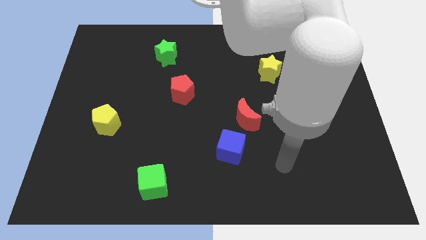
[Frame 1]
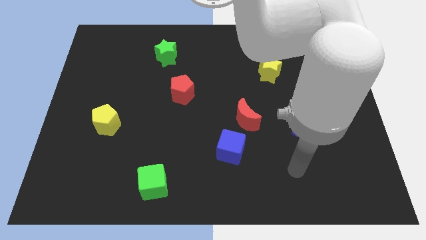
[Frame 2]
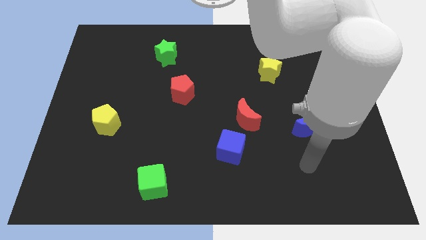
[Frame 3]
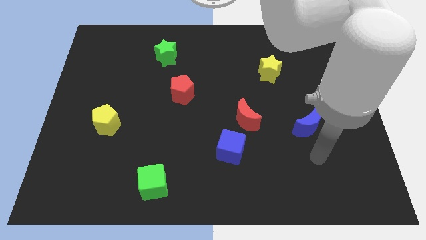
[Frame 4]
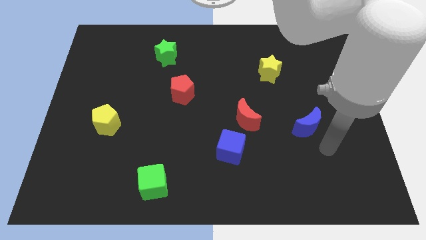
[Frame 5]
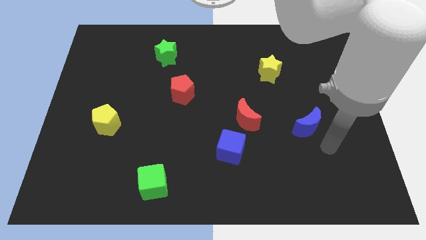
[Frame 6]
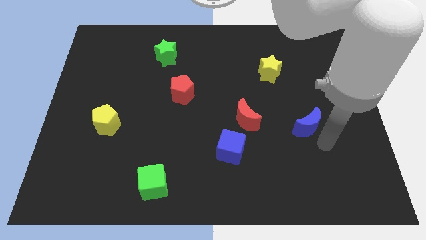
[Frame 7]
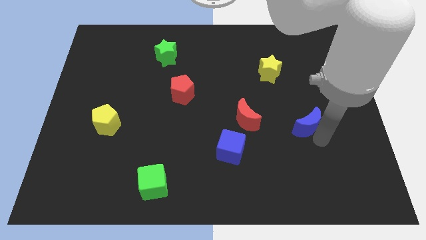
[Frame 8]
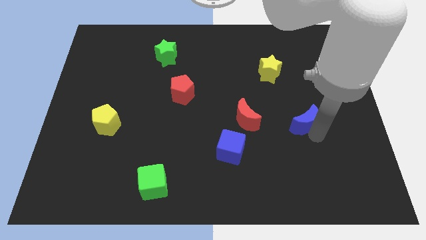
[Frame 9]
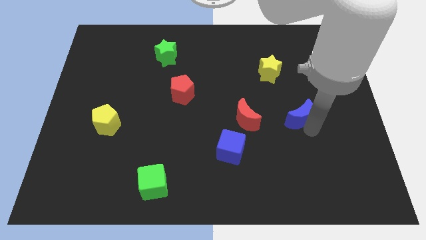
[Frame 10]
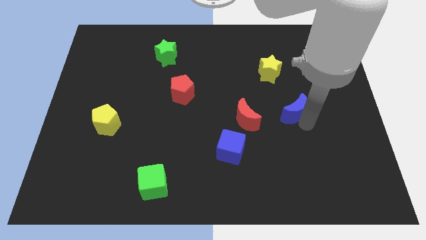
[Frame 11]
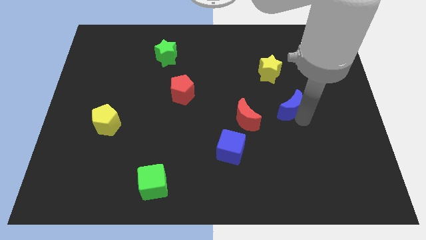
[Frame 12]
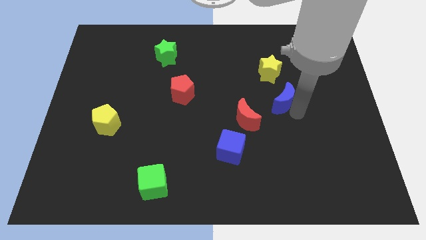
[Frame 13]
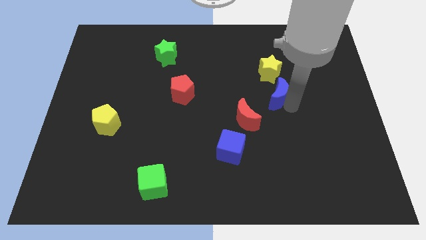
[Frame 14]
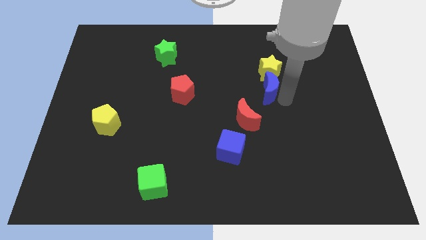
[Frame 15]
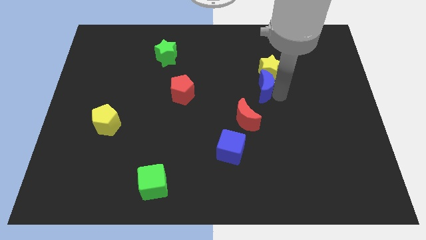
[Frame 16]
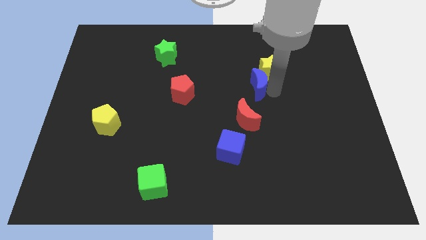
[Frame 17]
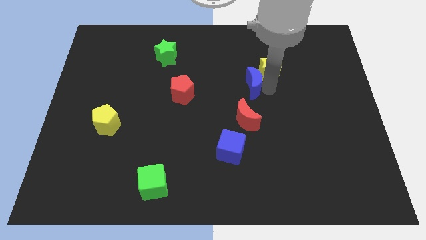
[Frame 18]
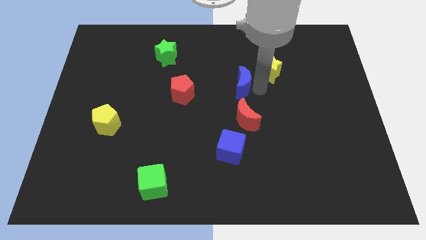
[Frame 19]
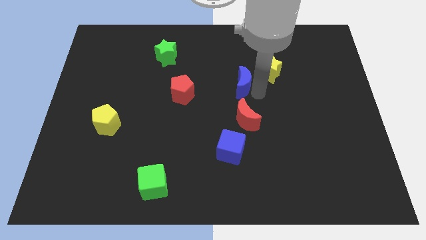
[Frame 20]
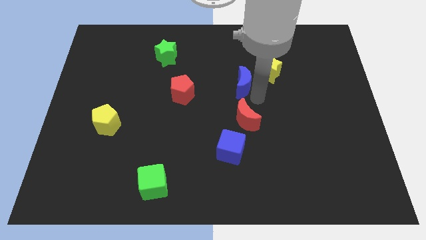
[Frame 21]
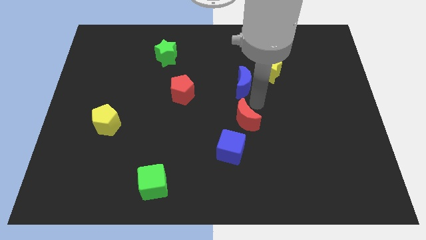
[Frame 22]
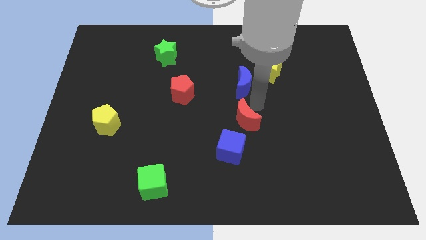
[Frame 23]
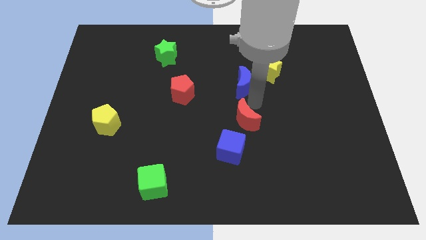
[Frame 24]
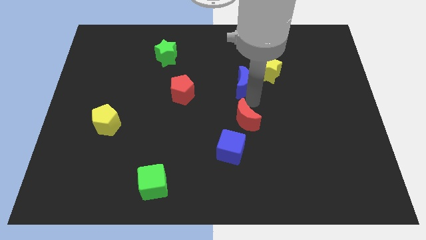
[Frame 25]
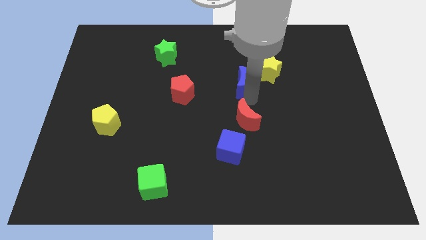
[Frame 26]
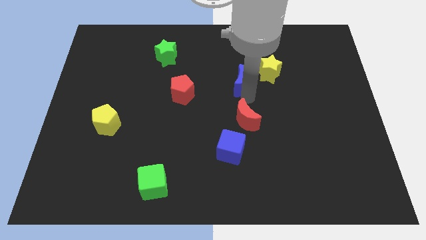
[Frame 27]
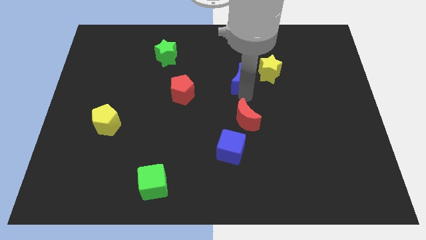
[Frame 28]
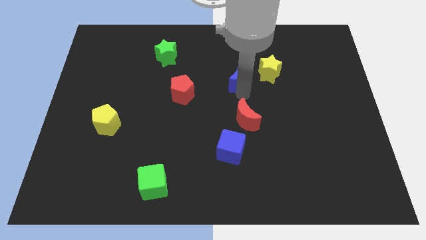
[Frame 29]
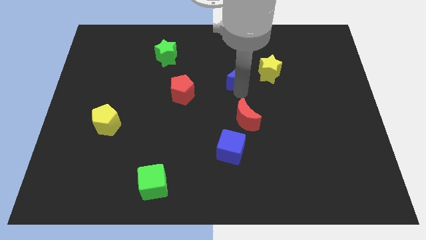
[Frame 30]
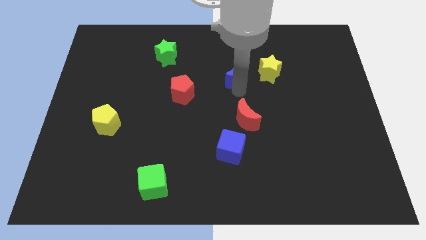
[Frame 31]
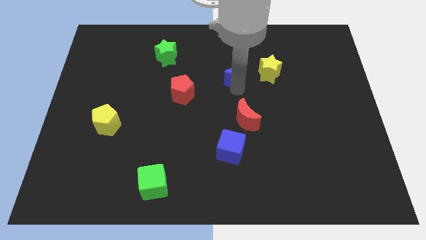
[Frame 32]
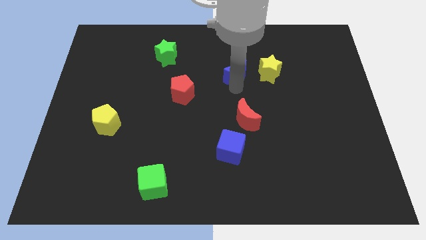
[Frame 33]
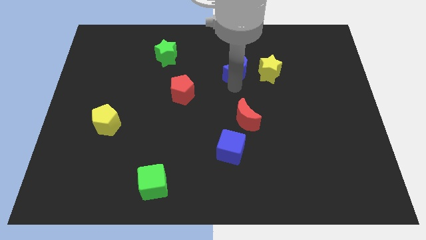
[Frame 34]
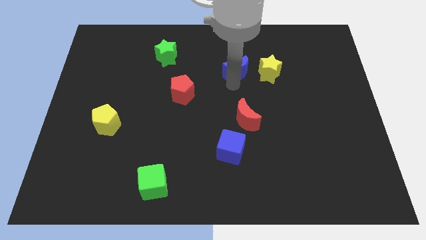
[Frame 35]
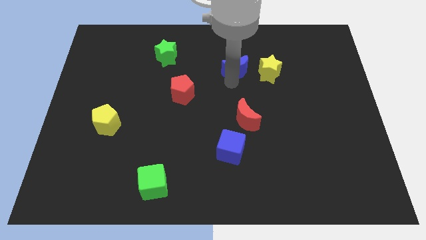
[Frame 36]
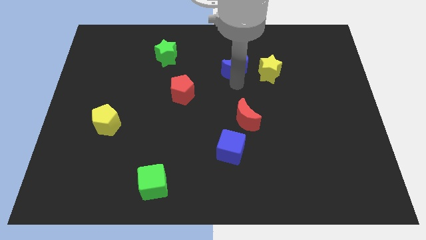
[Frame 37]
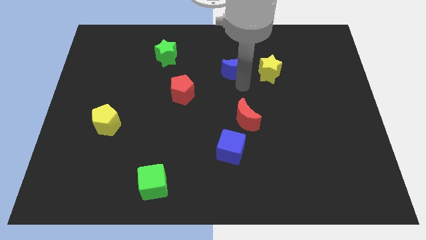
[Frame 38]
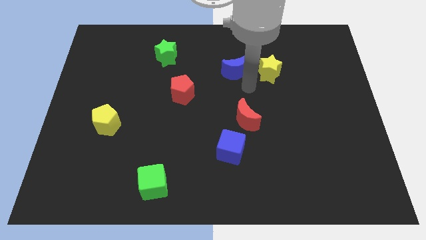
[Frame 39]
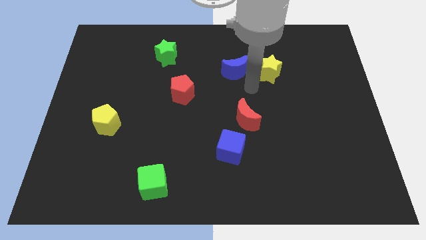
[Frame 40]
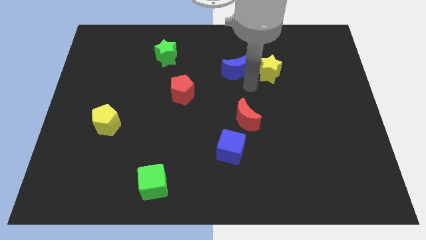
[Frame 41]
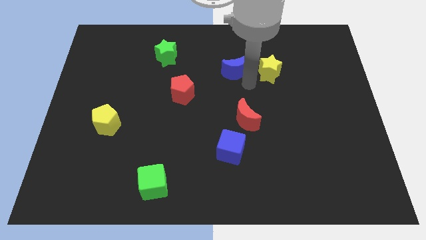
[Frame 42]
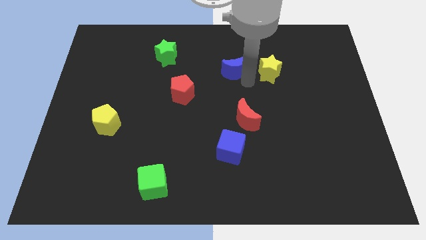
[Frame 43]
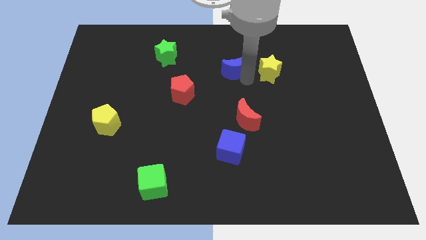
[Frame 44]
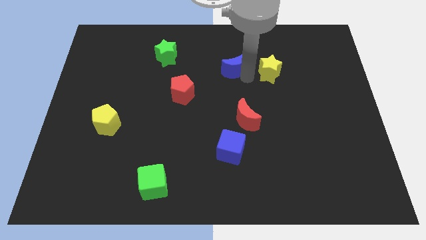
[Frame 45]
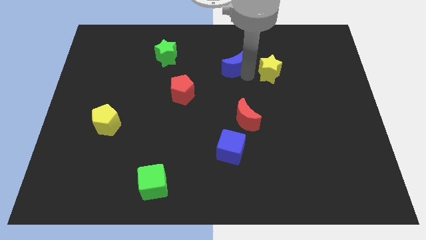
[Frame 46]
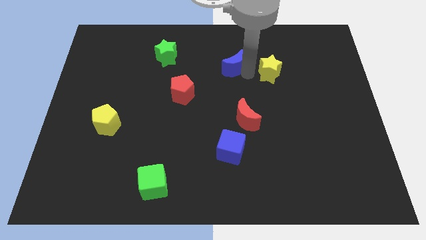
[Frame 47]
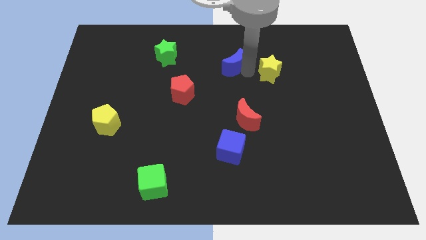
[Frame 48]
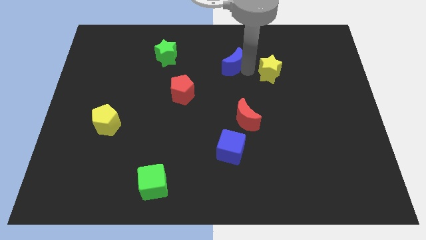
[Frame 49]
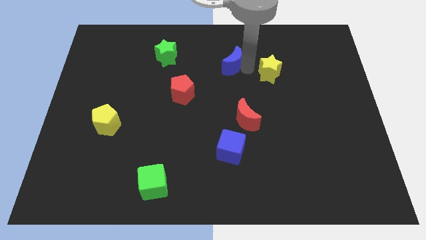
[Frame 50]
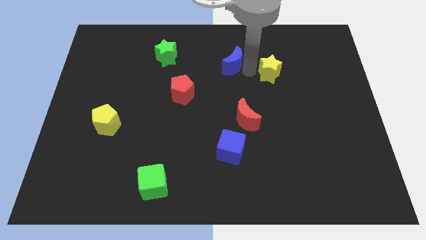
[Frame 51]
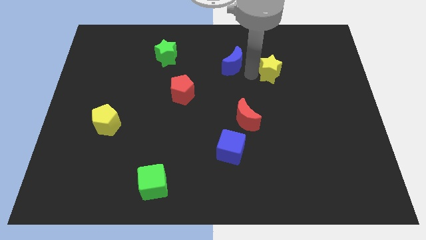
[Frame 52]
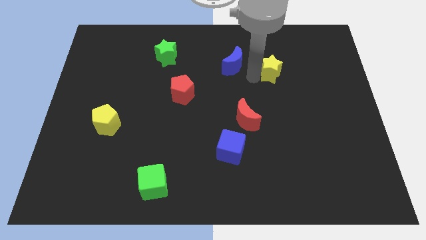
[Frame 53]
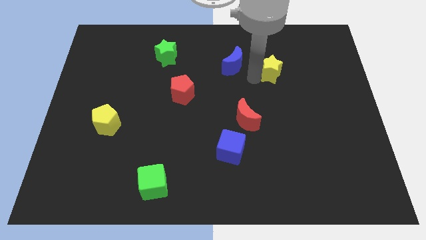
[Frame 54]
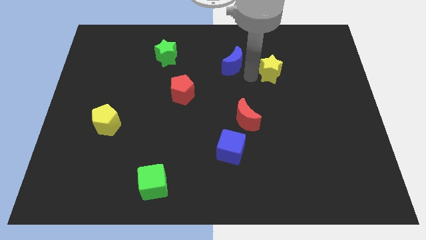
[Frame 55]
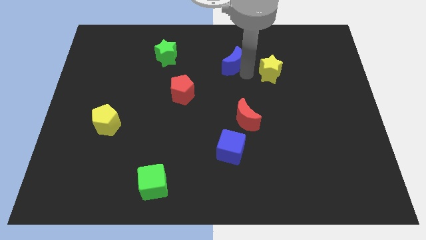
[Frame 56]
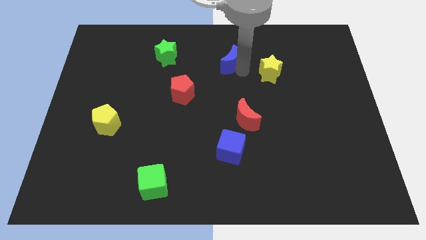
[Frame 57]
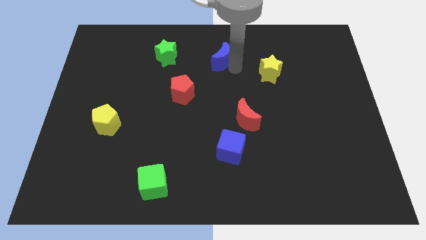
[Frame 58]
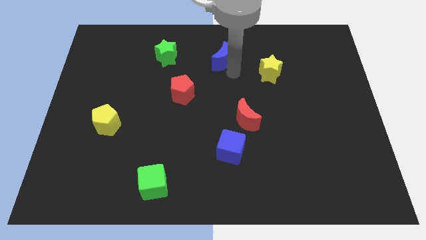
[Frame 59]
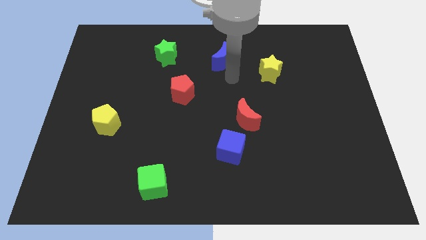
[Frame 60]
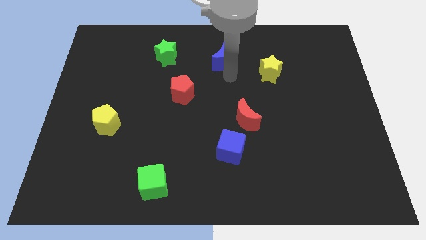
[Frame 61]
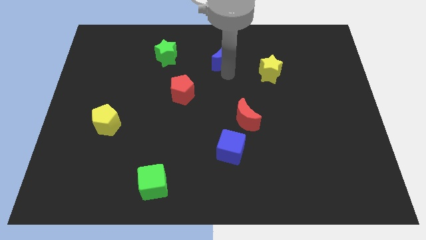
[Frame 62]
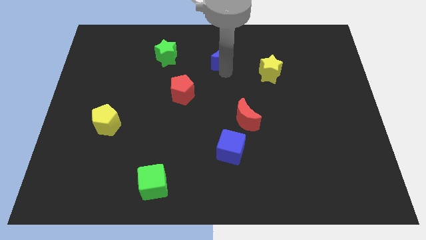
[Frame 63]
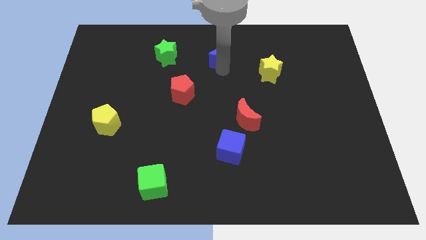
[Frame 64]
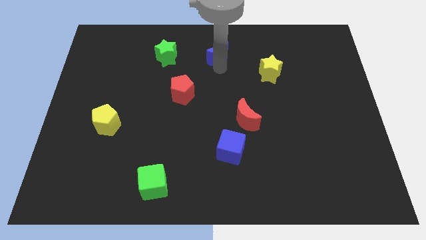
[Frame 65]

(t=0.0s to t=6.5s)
move the blue moon to the top
